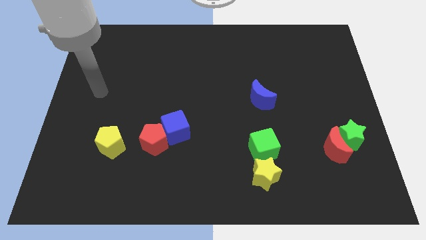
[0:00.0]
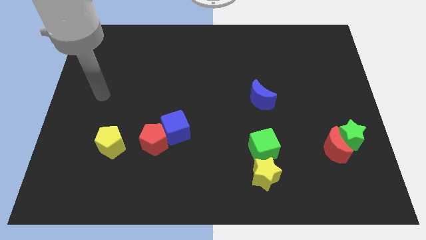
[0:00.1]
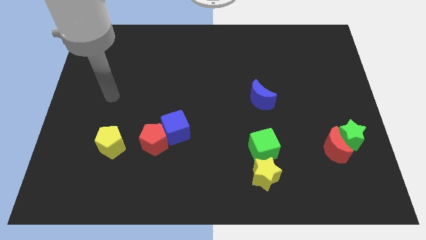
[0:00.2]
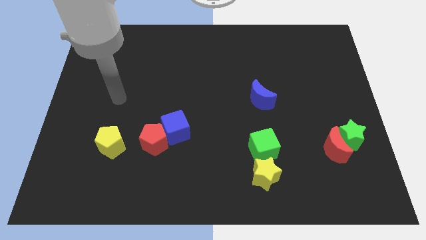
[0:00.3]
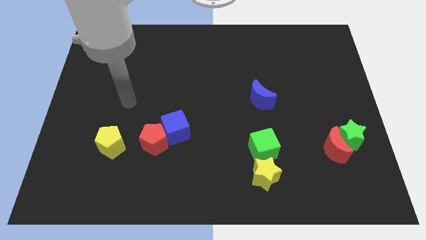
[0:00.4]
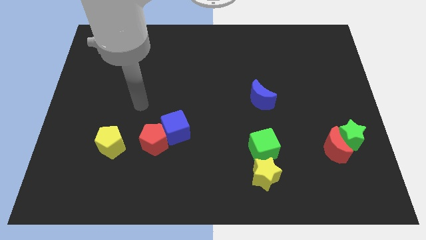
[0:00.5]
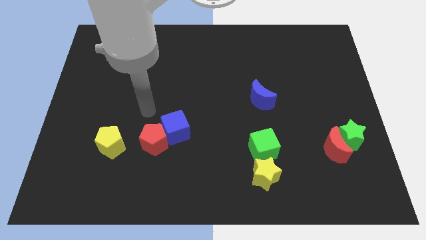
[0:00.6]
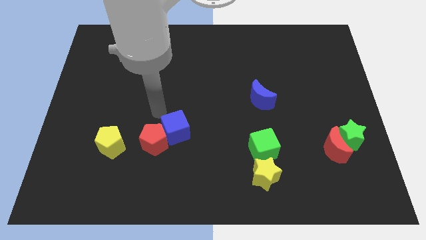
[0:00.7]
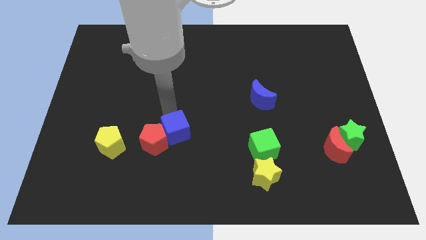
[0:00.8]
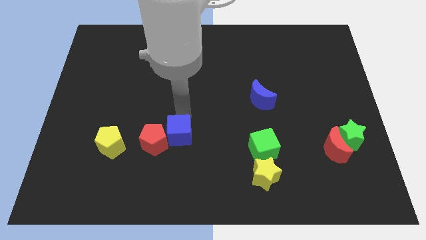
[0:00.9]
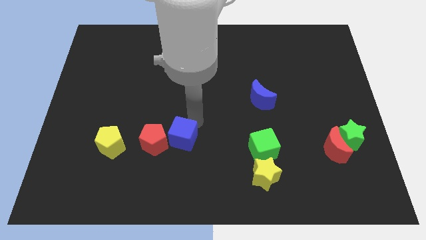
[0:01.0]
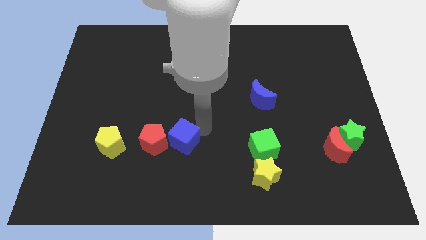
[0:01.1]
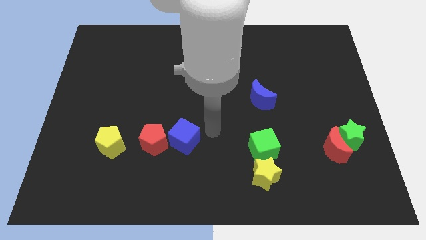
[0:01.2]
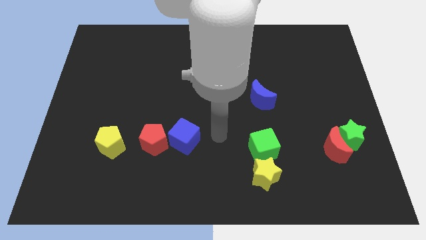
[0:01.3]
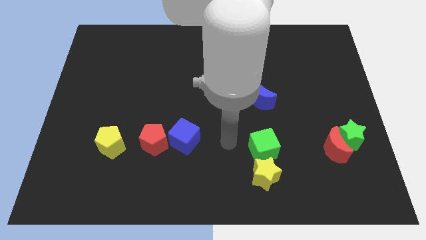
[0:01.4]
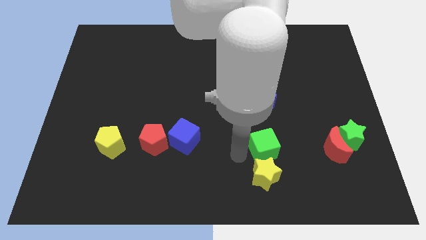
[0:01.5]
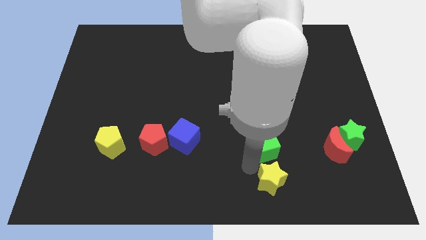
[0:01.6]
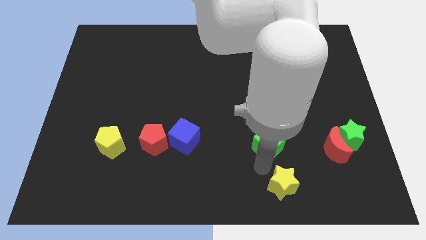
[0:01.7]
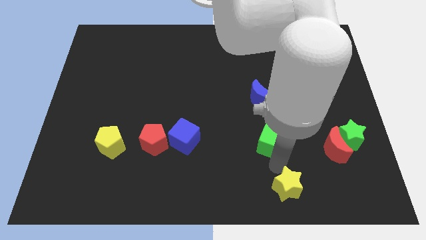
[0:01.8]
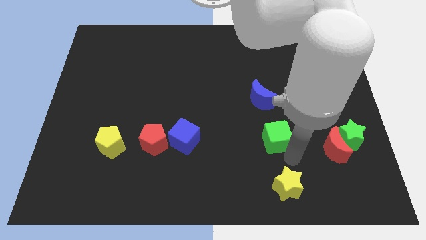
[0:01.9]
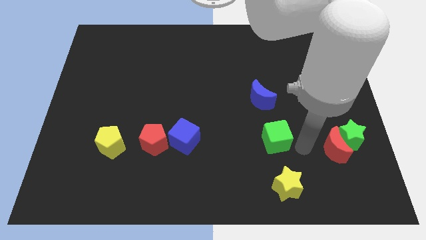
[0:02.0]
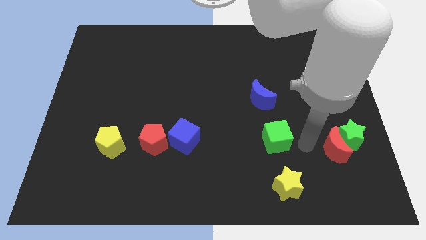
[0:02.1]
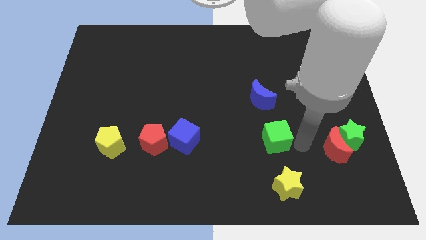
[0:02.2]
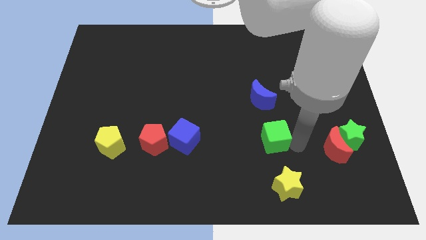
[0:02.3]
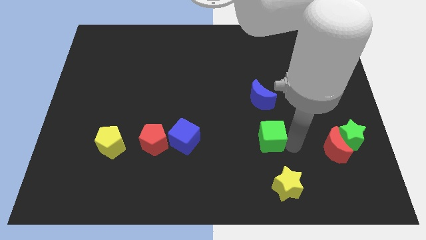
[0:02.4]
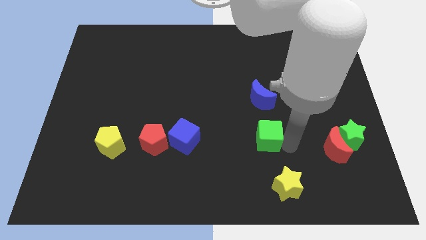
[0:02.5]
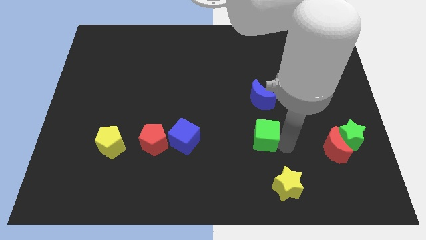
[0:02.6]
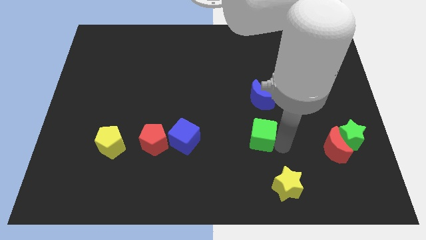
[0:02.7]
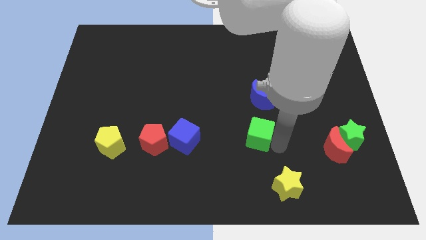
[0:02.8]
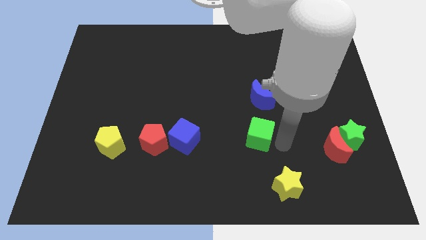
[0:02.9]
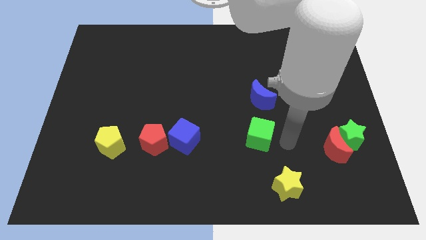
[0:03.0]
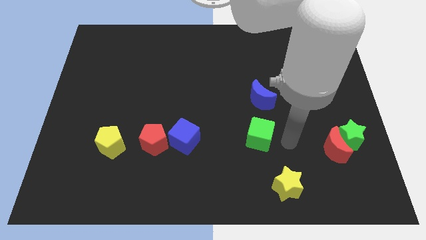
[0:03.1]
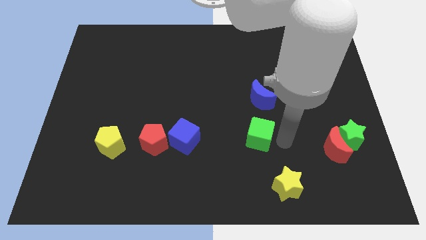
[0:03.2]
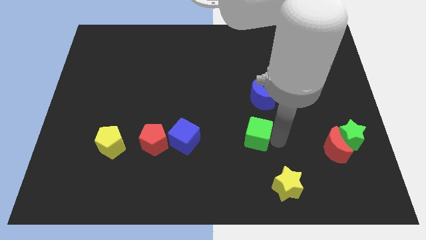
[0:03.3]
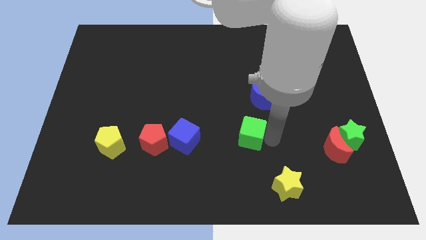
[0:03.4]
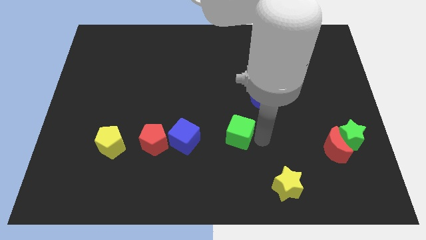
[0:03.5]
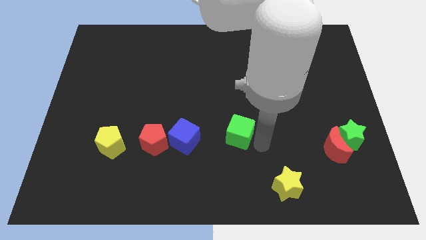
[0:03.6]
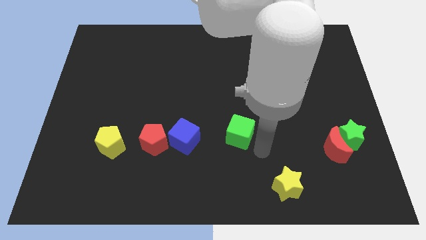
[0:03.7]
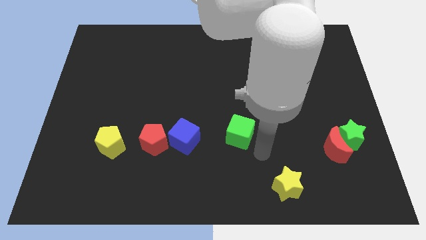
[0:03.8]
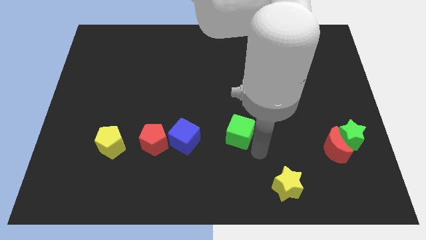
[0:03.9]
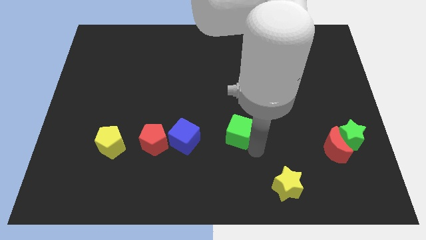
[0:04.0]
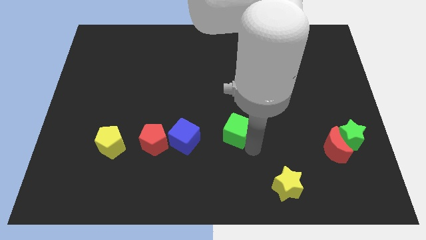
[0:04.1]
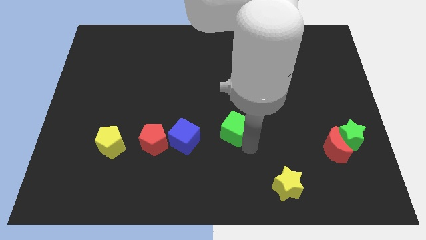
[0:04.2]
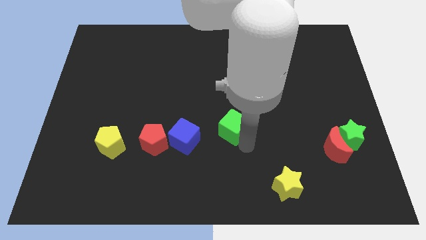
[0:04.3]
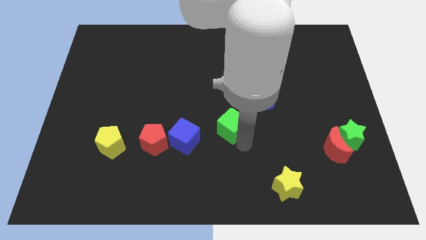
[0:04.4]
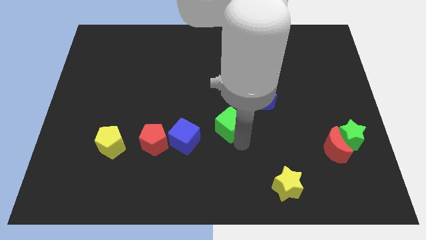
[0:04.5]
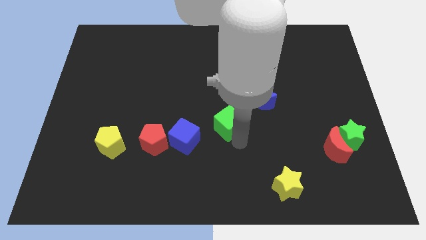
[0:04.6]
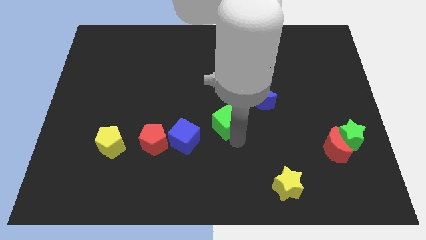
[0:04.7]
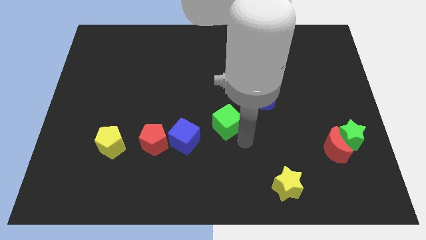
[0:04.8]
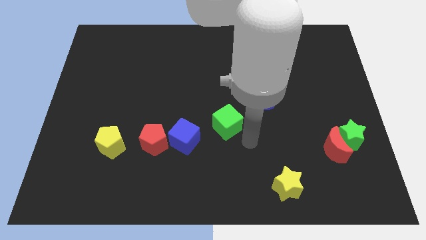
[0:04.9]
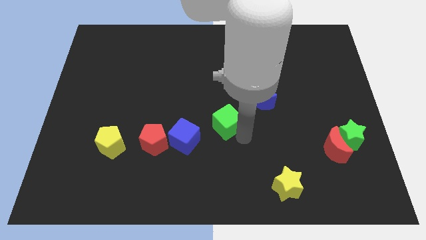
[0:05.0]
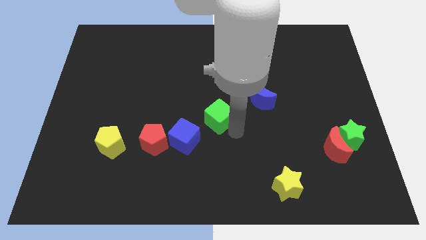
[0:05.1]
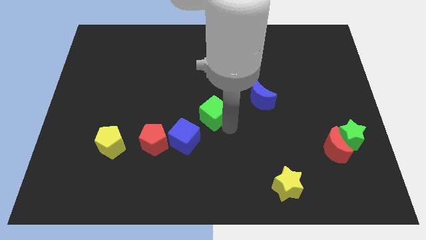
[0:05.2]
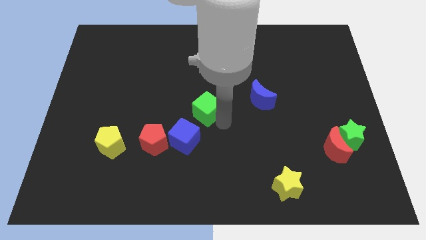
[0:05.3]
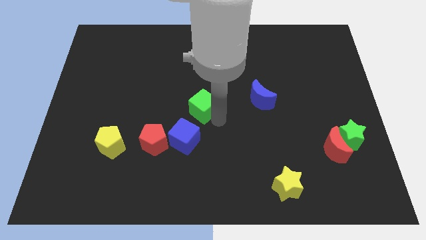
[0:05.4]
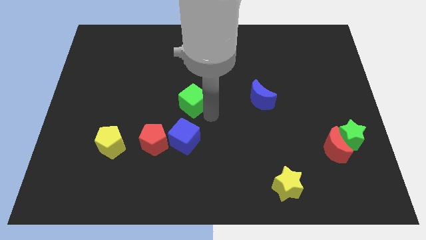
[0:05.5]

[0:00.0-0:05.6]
push the green cube diagonally up and left

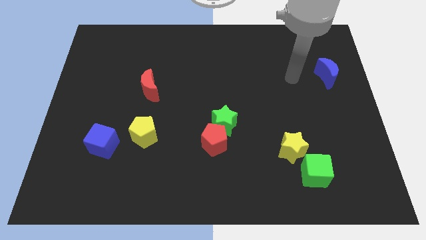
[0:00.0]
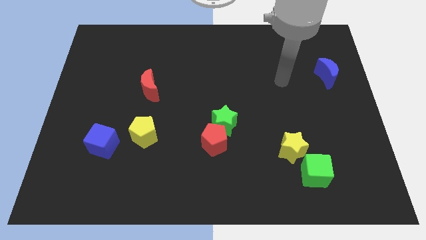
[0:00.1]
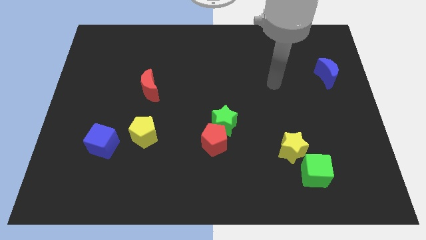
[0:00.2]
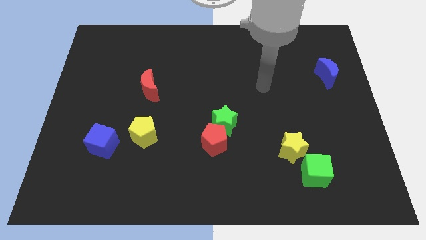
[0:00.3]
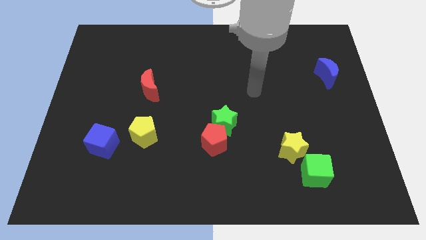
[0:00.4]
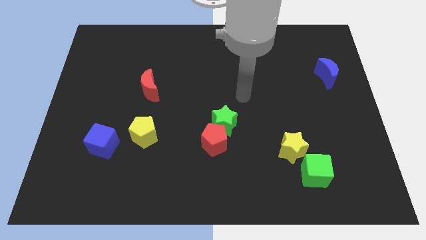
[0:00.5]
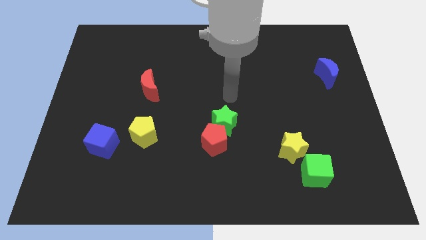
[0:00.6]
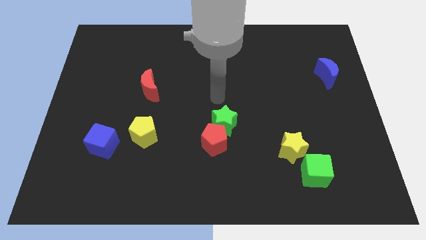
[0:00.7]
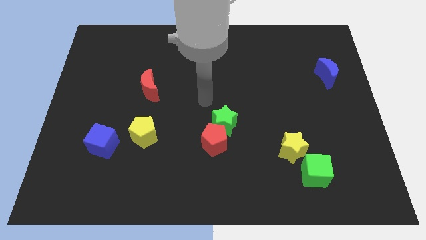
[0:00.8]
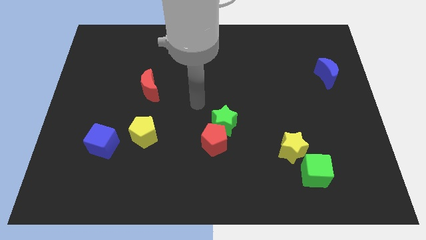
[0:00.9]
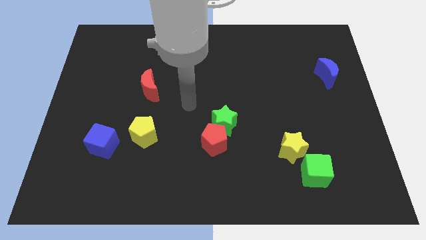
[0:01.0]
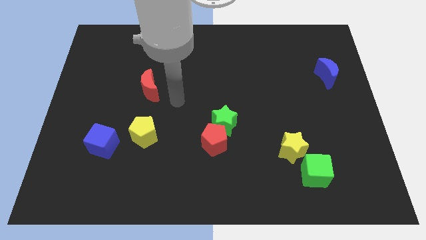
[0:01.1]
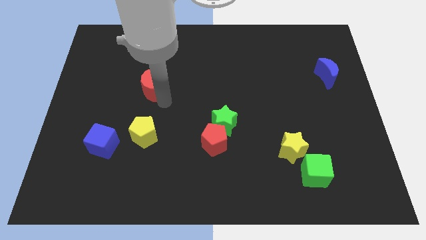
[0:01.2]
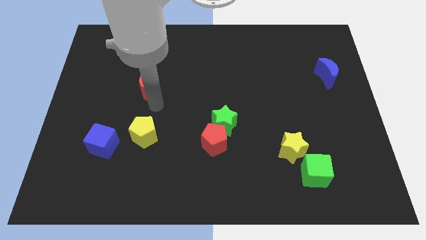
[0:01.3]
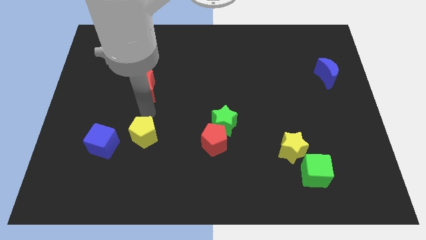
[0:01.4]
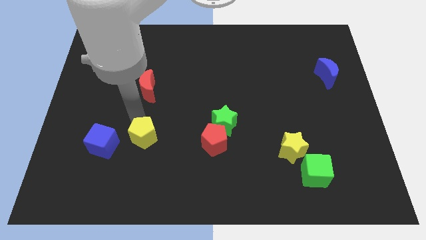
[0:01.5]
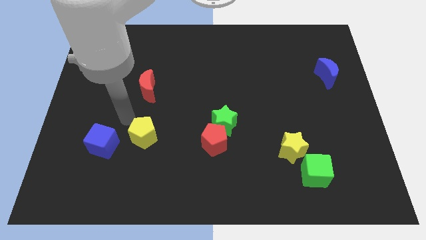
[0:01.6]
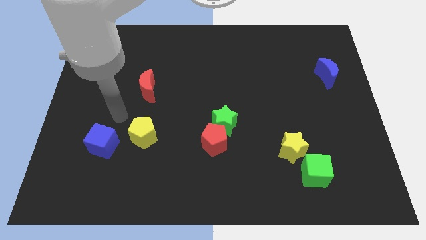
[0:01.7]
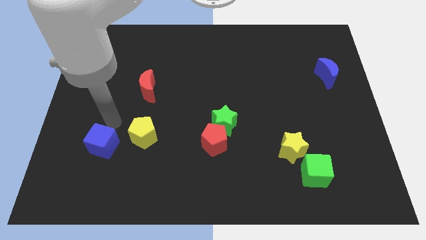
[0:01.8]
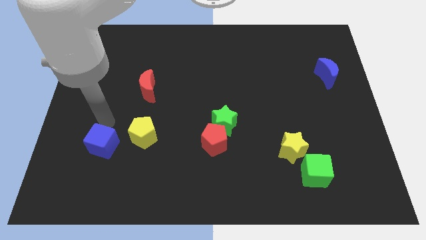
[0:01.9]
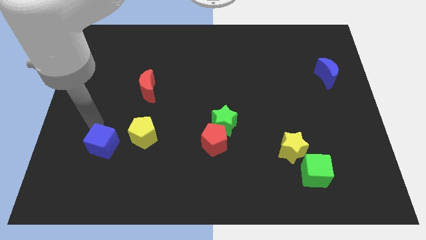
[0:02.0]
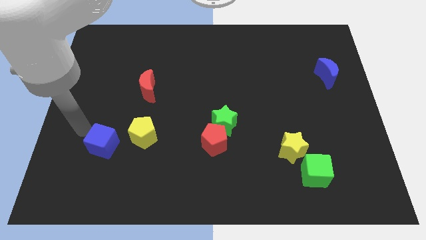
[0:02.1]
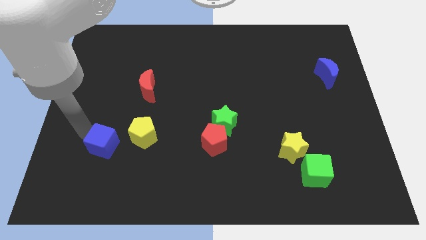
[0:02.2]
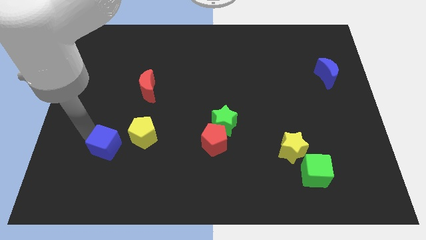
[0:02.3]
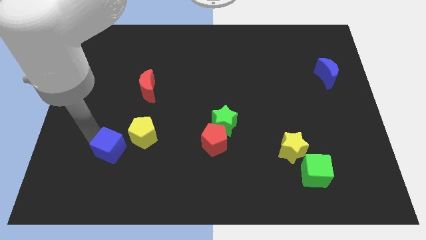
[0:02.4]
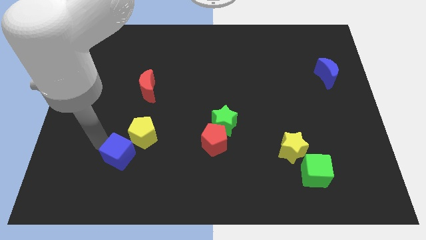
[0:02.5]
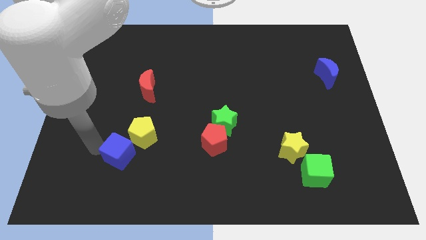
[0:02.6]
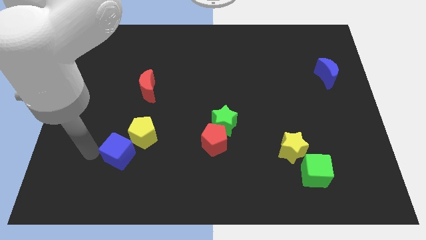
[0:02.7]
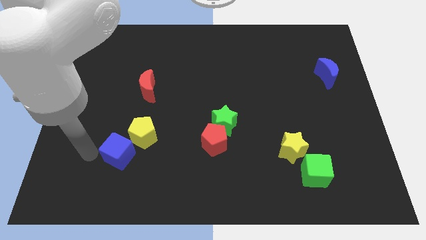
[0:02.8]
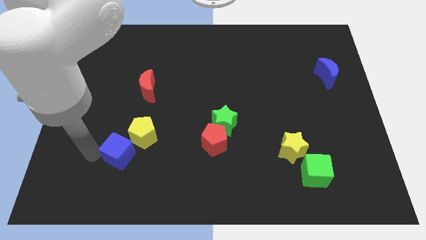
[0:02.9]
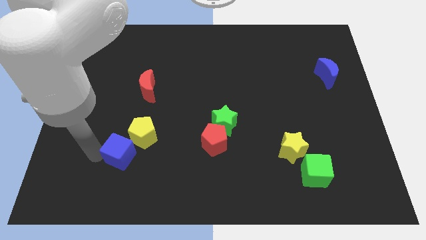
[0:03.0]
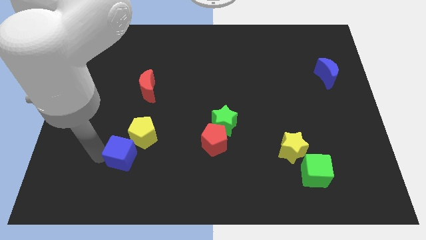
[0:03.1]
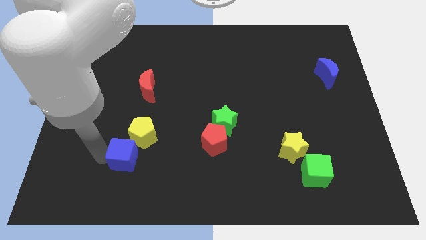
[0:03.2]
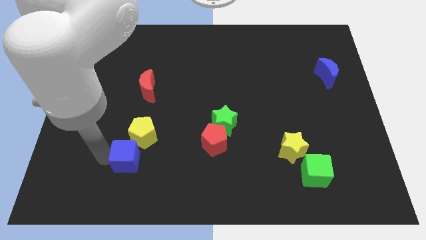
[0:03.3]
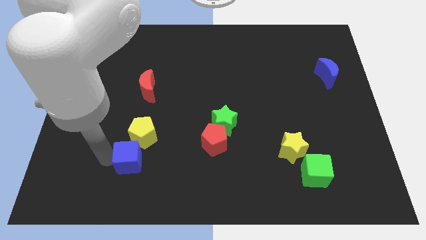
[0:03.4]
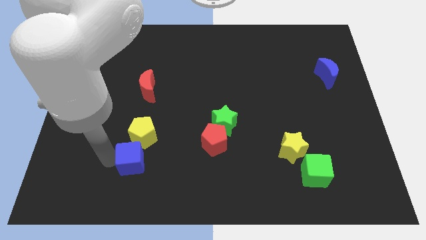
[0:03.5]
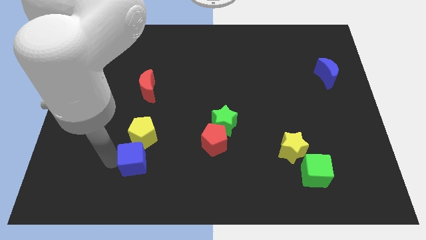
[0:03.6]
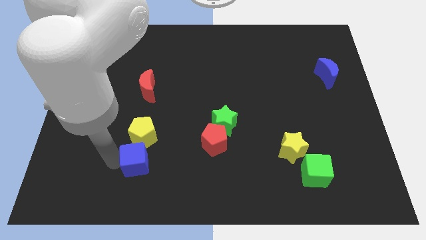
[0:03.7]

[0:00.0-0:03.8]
slide the blue cube right a bit
